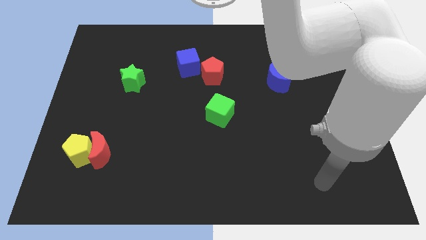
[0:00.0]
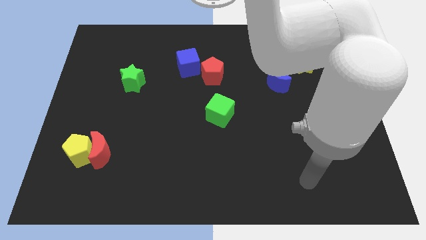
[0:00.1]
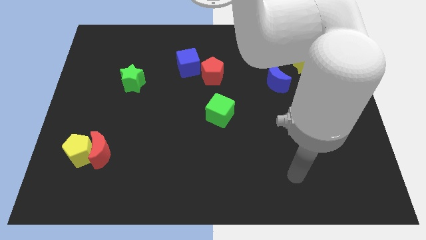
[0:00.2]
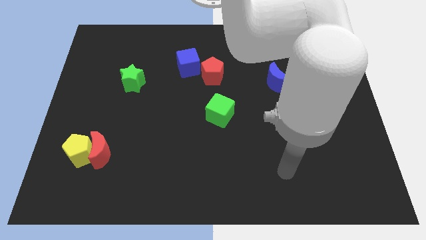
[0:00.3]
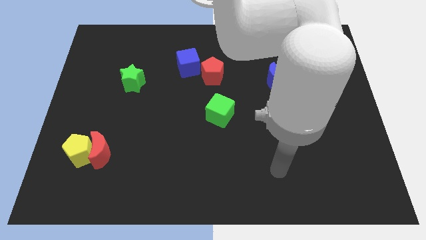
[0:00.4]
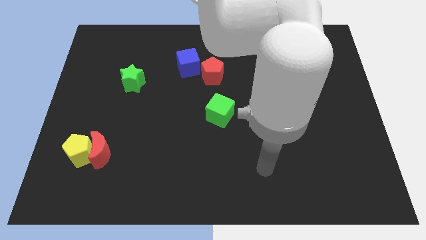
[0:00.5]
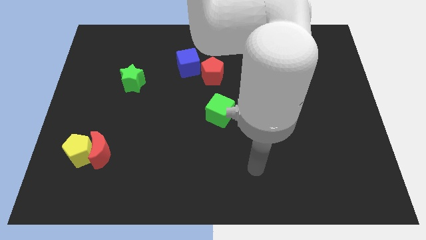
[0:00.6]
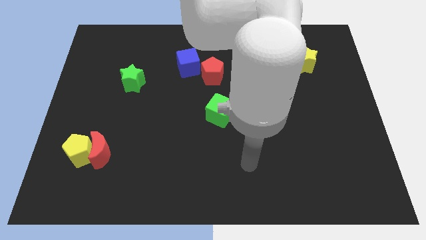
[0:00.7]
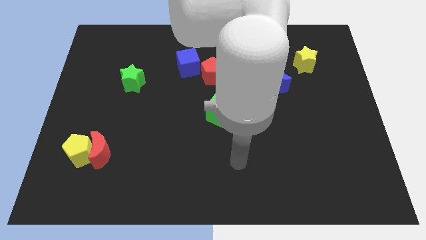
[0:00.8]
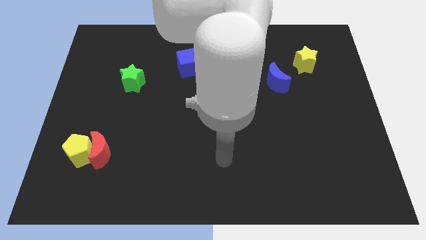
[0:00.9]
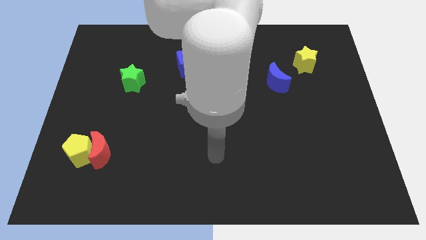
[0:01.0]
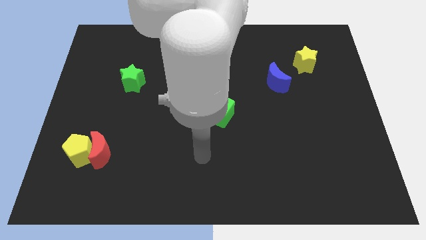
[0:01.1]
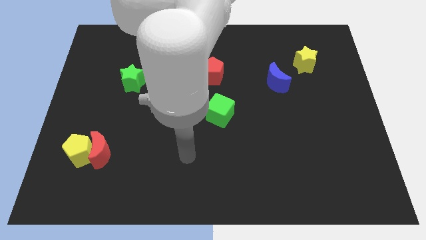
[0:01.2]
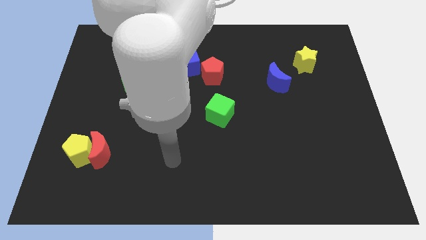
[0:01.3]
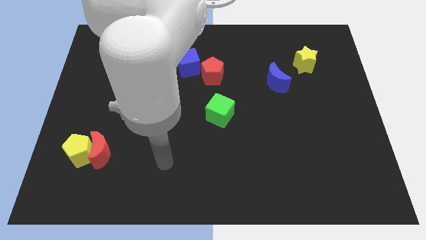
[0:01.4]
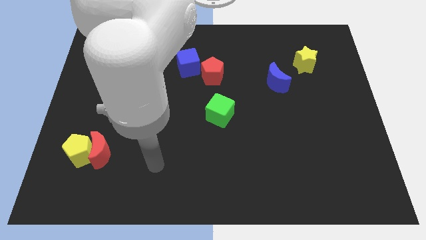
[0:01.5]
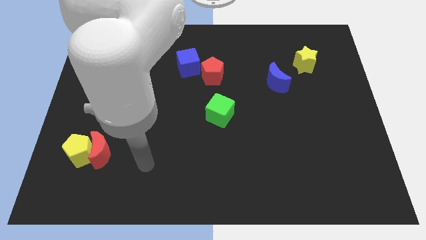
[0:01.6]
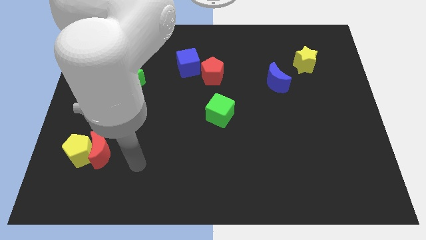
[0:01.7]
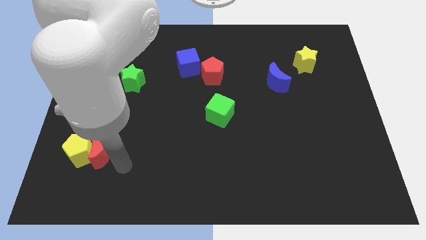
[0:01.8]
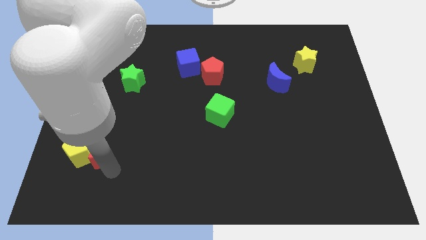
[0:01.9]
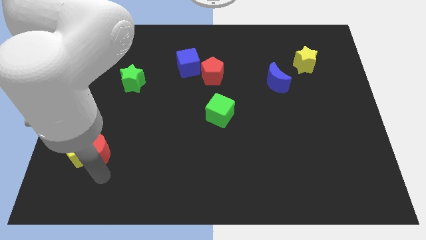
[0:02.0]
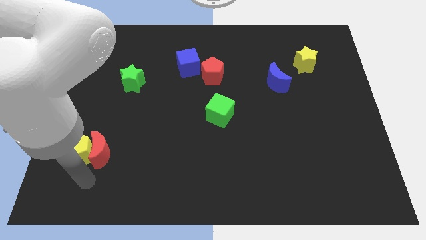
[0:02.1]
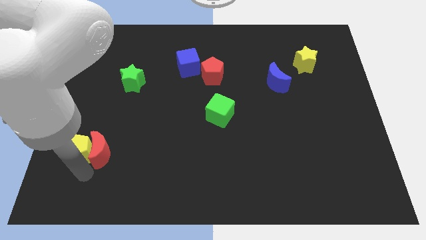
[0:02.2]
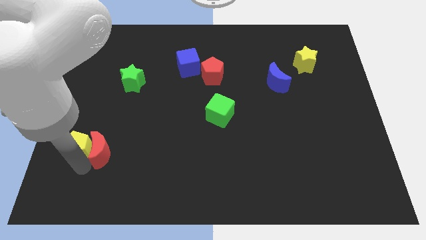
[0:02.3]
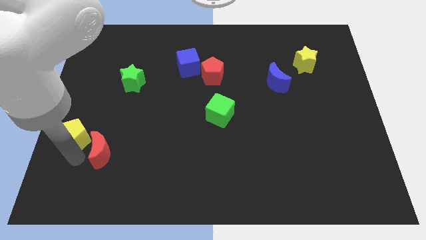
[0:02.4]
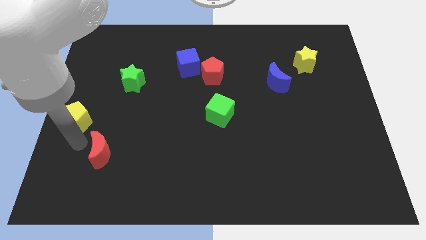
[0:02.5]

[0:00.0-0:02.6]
pull the red moon apart from the yellow pentagon

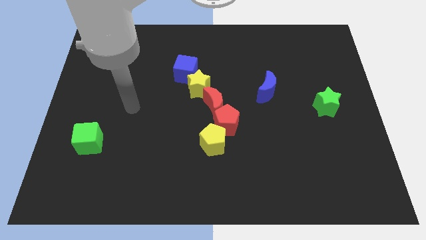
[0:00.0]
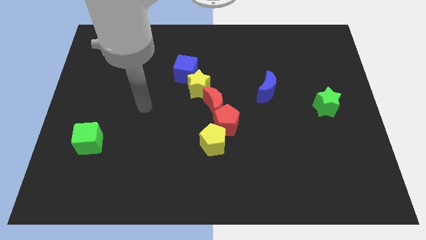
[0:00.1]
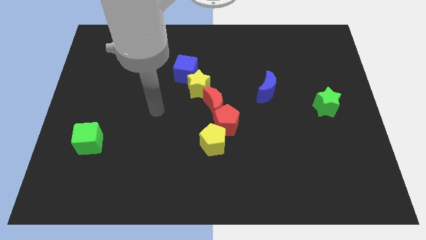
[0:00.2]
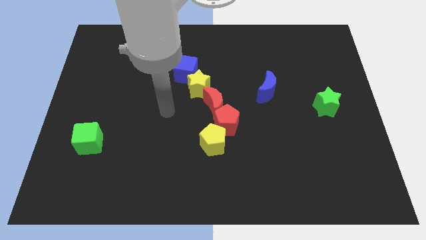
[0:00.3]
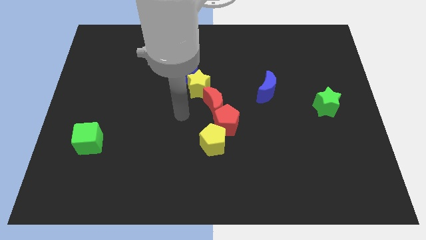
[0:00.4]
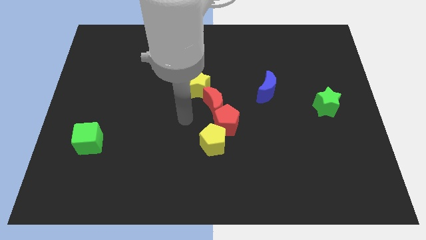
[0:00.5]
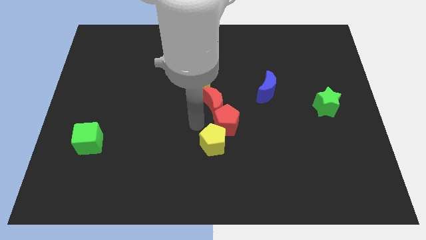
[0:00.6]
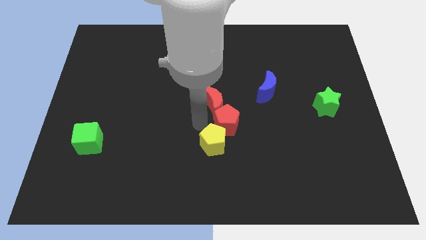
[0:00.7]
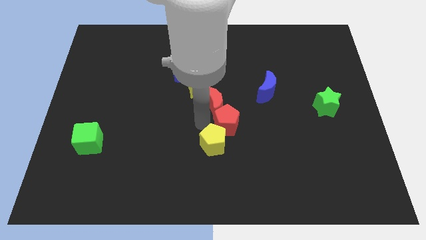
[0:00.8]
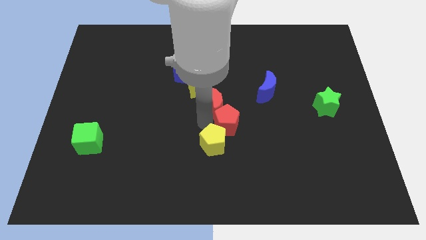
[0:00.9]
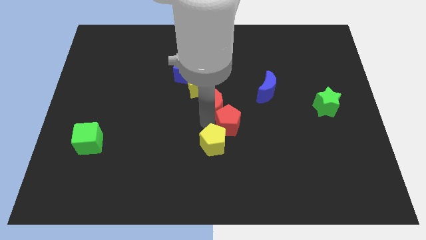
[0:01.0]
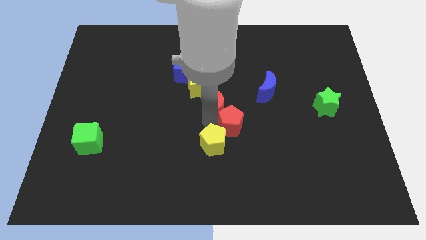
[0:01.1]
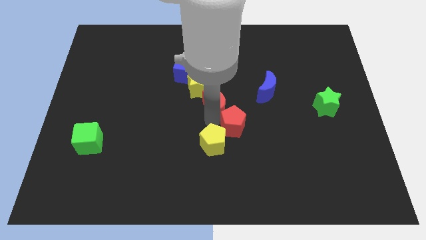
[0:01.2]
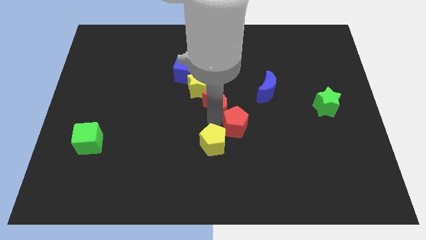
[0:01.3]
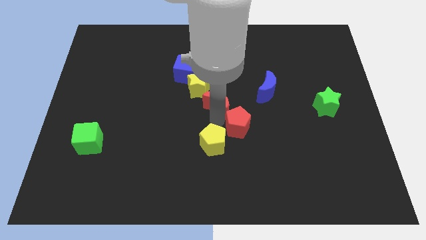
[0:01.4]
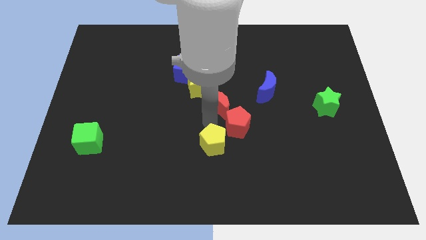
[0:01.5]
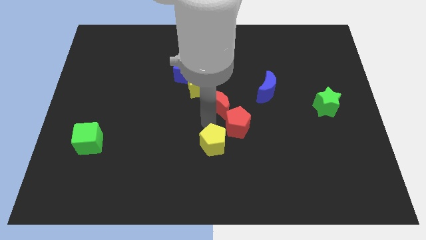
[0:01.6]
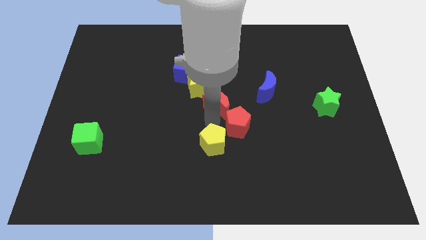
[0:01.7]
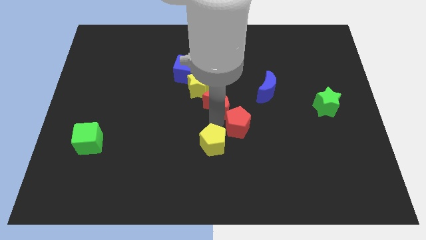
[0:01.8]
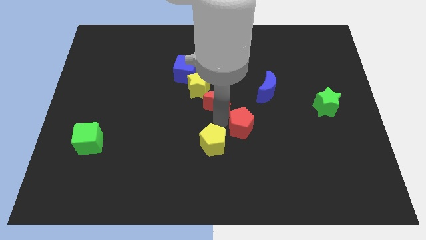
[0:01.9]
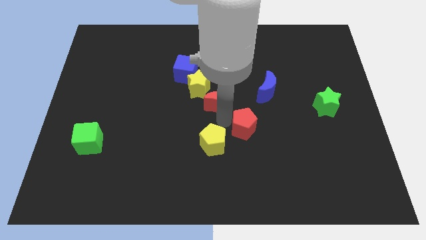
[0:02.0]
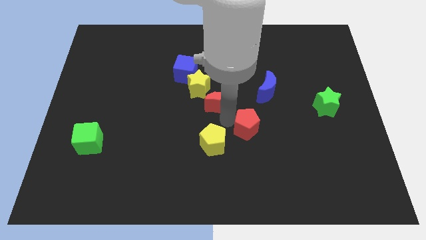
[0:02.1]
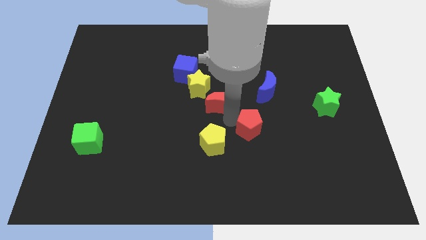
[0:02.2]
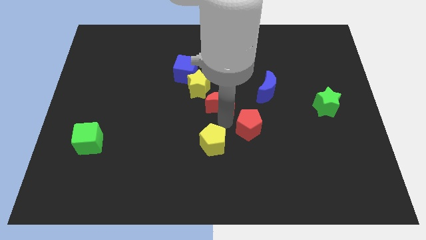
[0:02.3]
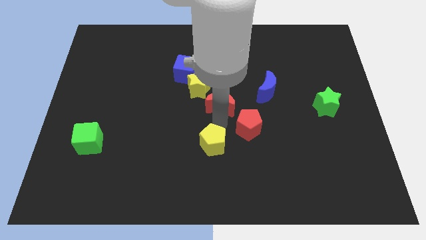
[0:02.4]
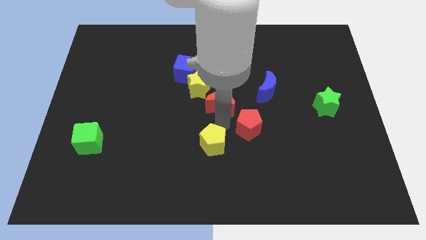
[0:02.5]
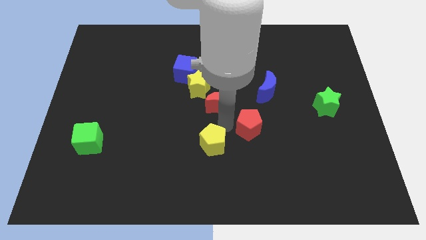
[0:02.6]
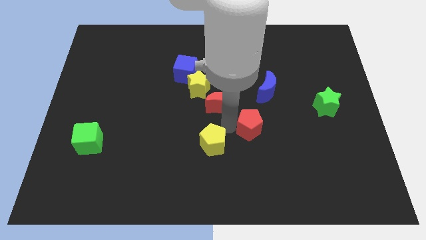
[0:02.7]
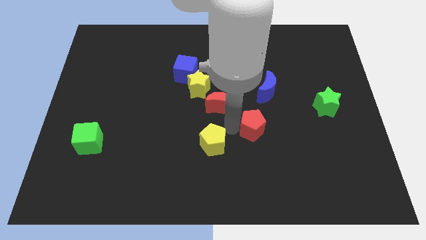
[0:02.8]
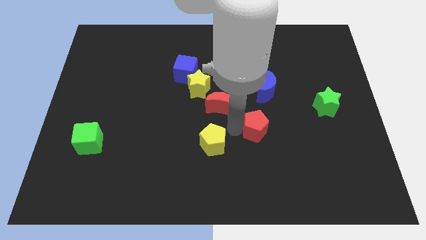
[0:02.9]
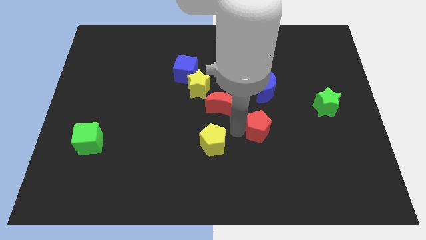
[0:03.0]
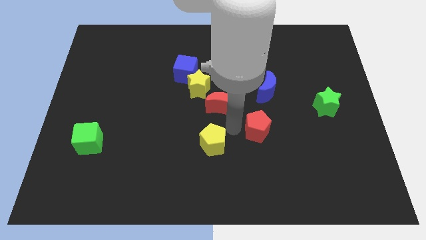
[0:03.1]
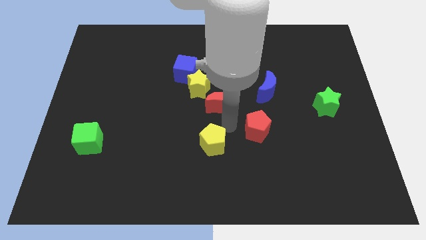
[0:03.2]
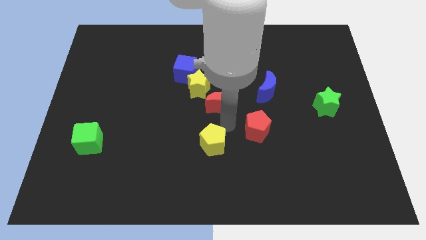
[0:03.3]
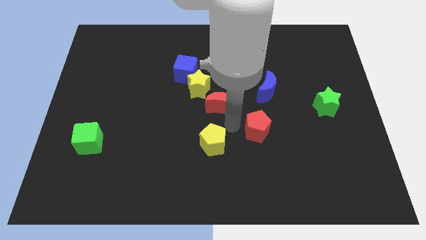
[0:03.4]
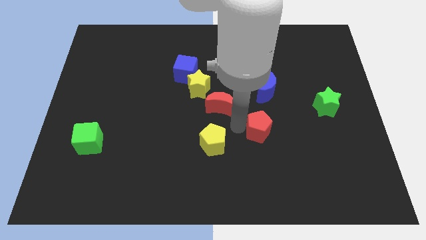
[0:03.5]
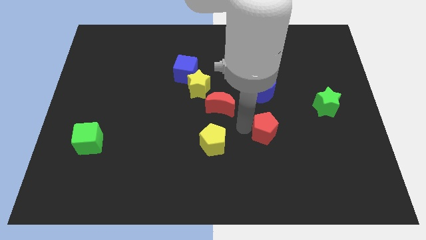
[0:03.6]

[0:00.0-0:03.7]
pull the red pentagon apart from the yellow pentagon and red moon

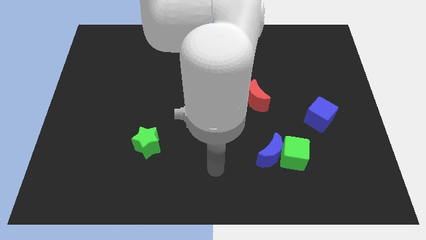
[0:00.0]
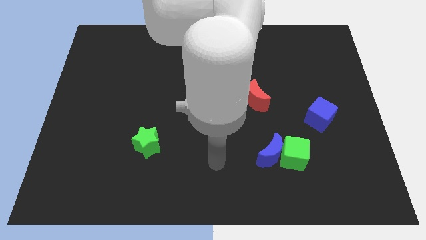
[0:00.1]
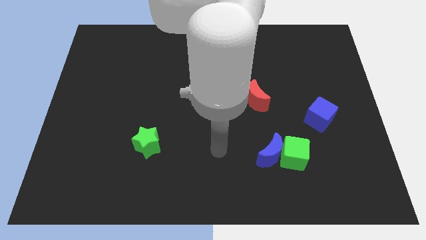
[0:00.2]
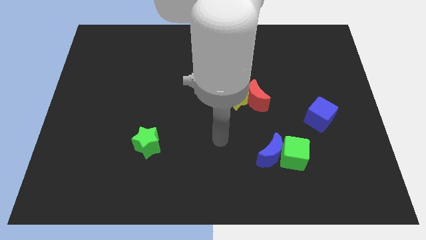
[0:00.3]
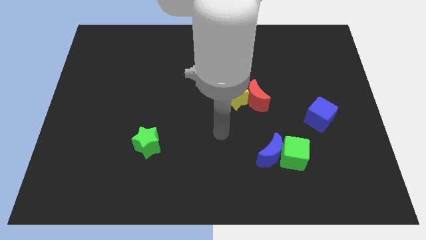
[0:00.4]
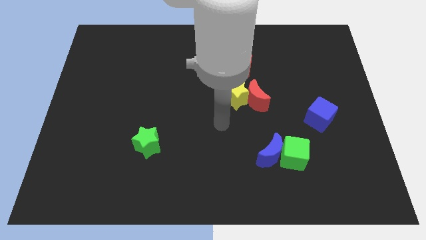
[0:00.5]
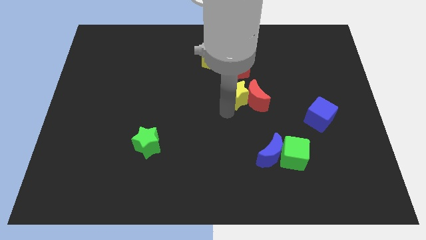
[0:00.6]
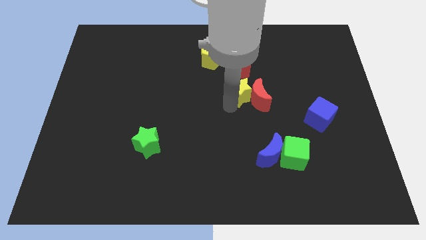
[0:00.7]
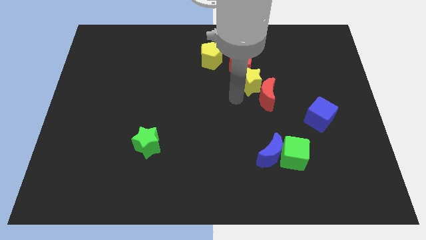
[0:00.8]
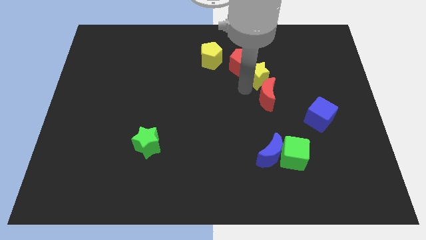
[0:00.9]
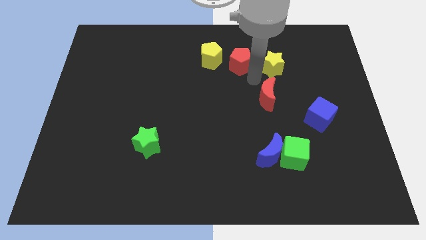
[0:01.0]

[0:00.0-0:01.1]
separate the red moon from the yellow star

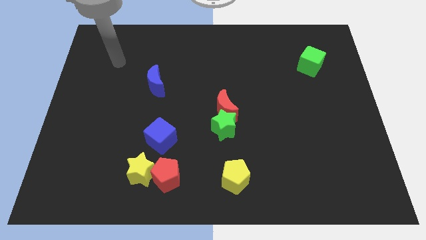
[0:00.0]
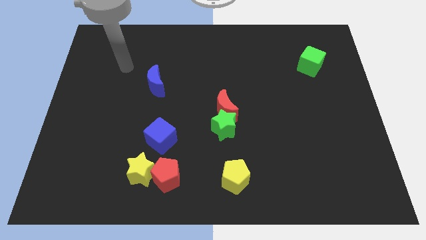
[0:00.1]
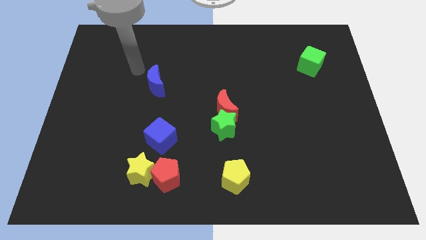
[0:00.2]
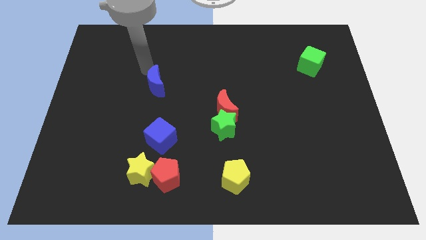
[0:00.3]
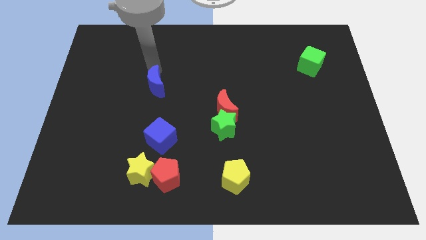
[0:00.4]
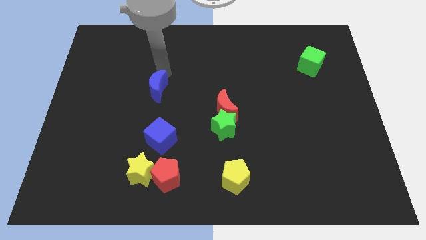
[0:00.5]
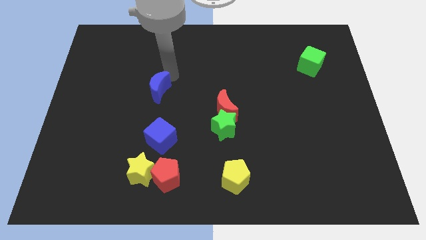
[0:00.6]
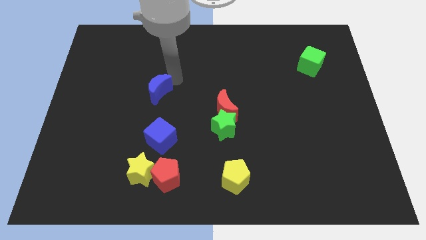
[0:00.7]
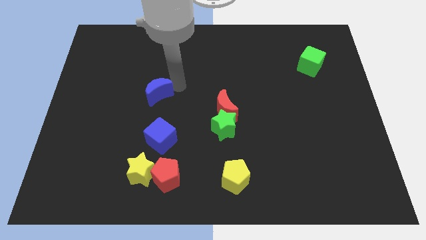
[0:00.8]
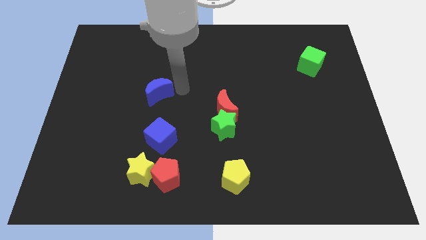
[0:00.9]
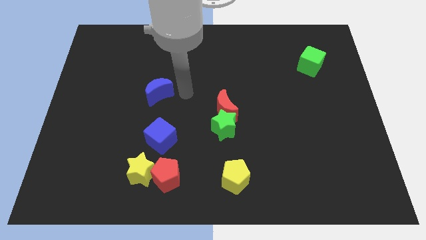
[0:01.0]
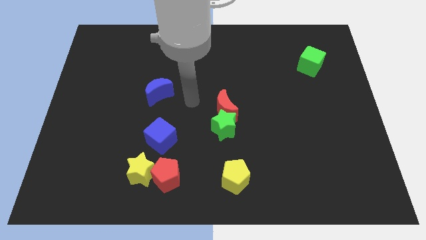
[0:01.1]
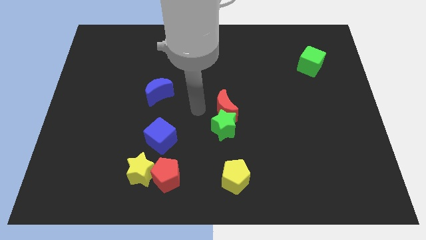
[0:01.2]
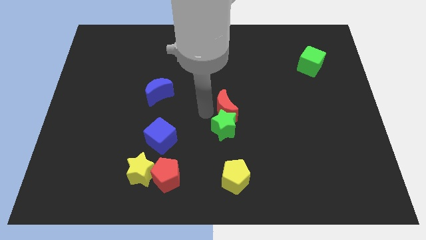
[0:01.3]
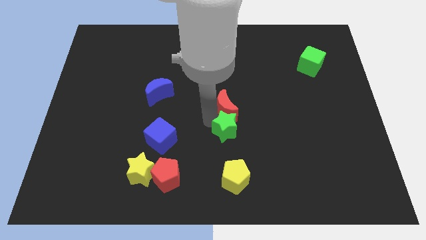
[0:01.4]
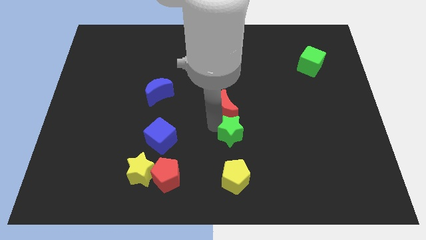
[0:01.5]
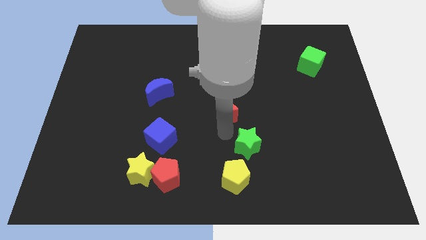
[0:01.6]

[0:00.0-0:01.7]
move the red moon away from the green star

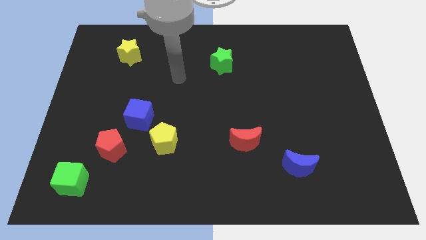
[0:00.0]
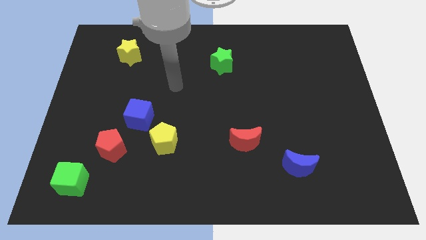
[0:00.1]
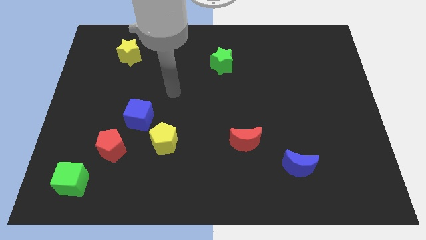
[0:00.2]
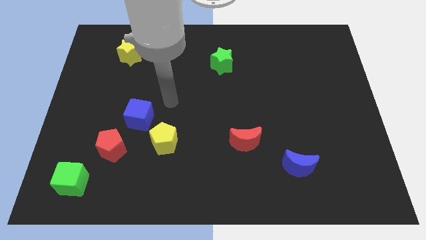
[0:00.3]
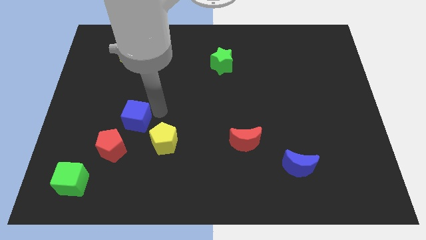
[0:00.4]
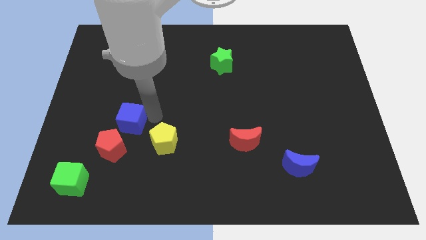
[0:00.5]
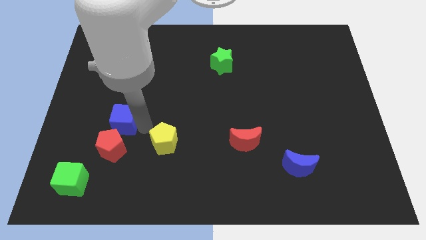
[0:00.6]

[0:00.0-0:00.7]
pull the yellow pentagon apart from the blue cube
